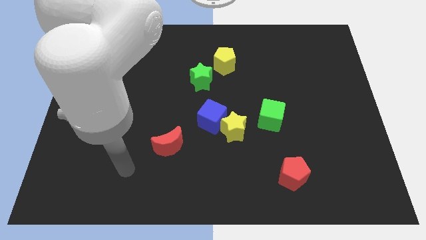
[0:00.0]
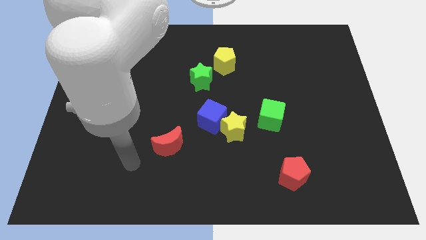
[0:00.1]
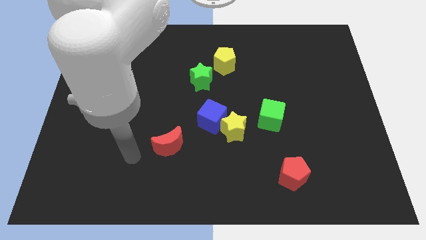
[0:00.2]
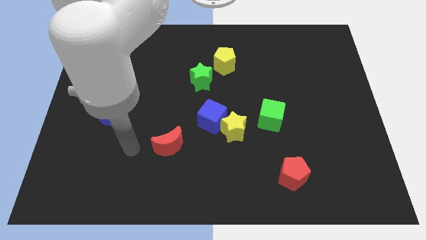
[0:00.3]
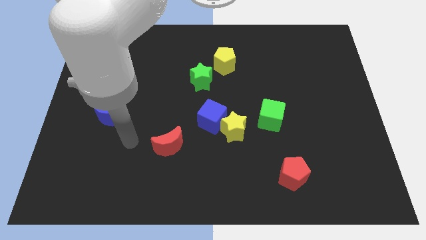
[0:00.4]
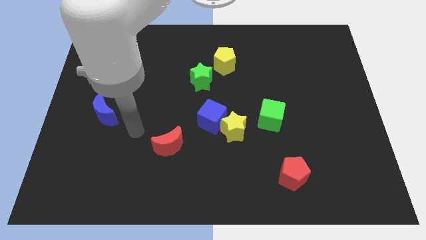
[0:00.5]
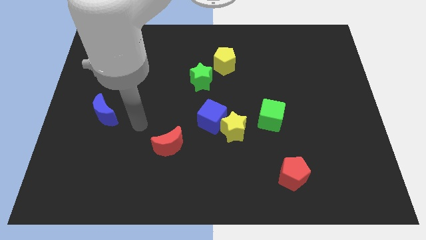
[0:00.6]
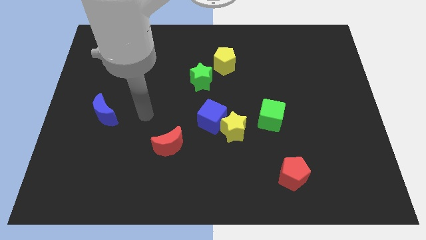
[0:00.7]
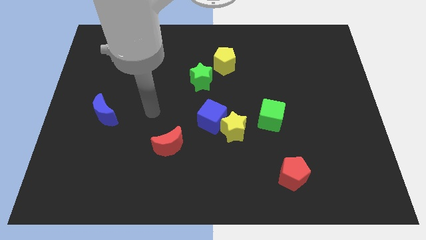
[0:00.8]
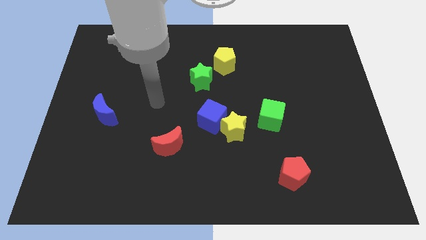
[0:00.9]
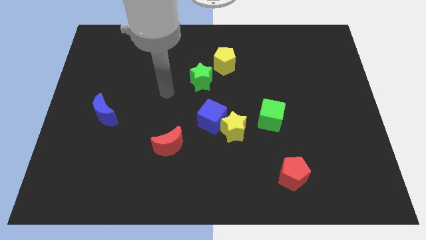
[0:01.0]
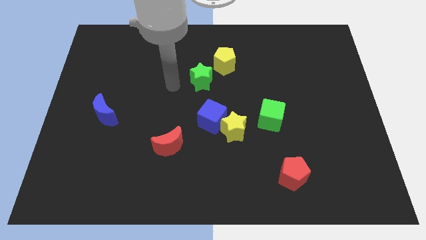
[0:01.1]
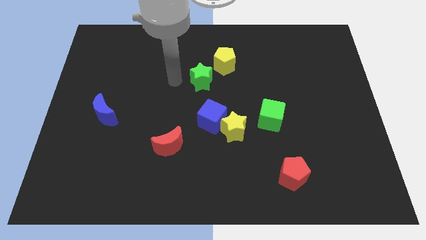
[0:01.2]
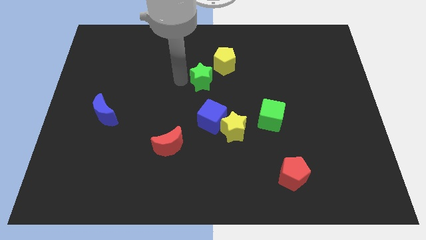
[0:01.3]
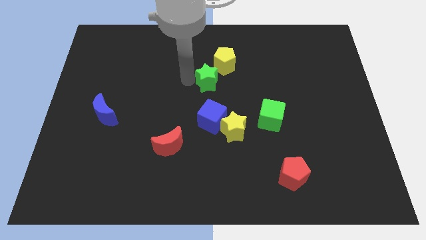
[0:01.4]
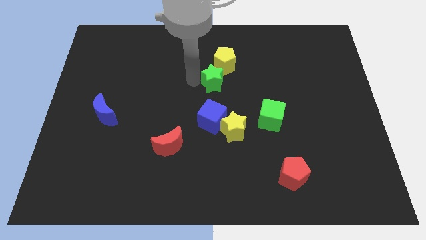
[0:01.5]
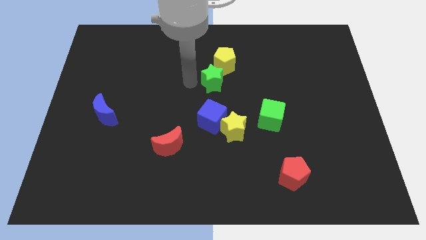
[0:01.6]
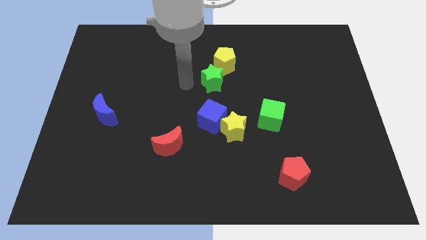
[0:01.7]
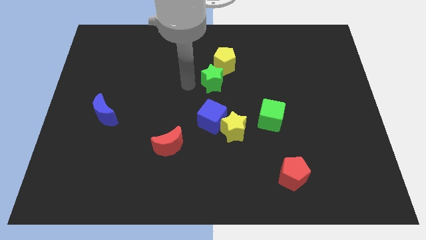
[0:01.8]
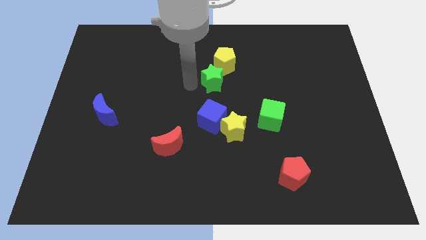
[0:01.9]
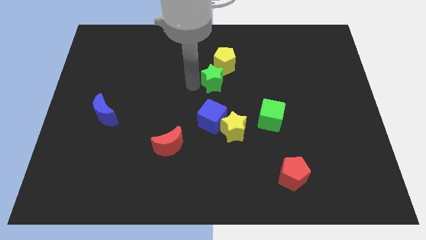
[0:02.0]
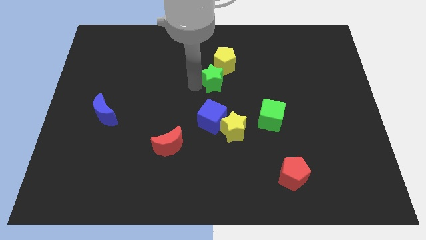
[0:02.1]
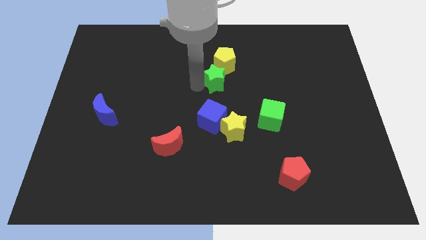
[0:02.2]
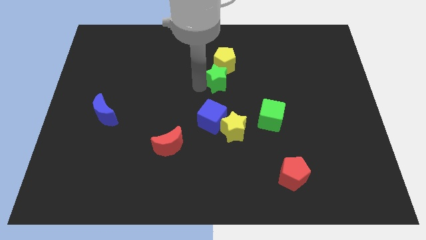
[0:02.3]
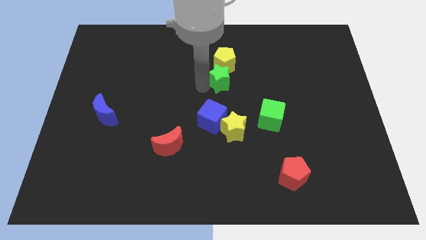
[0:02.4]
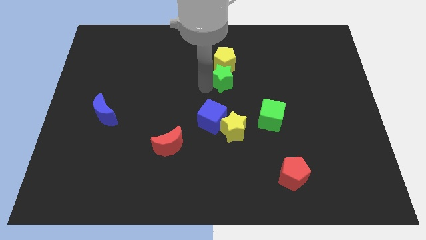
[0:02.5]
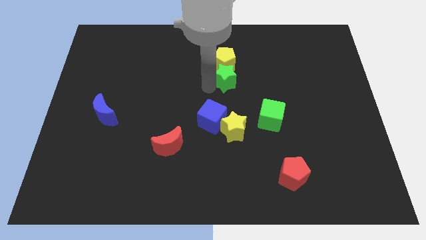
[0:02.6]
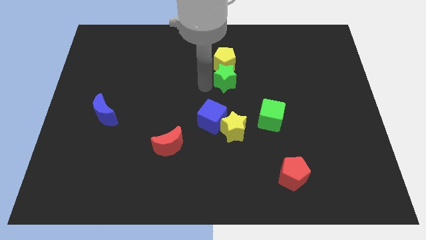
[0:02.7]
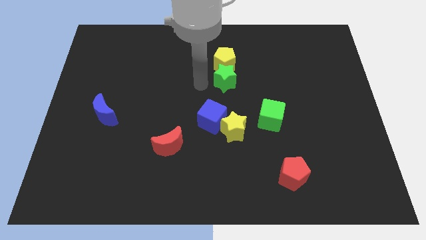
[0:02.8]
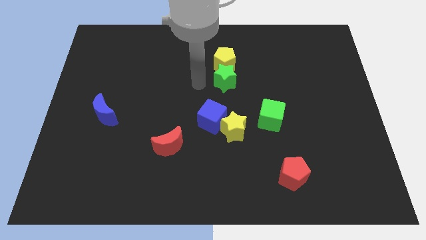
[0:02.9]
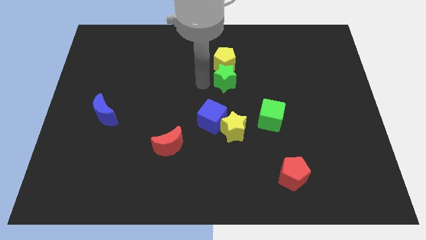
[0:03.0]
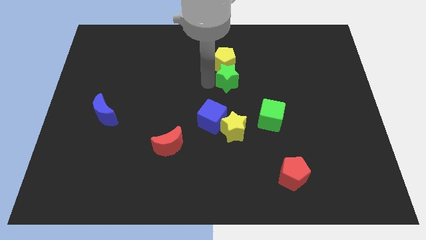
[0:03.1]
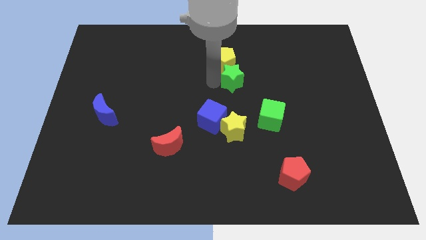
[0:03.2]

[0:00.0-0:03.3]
push the green star a little right

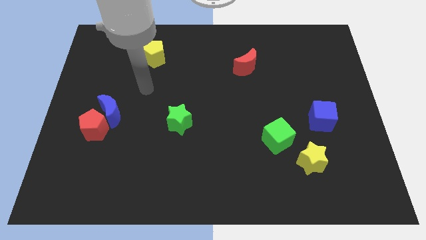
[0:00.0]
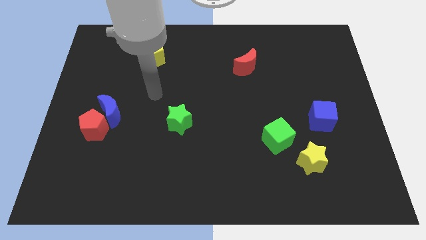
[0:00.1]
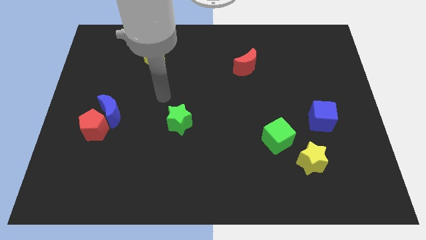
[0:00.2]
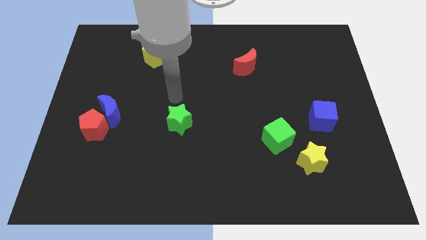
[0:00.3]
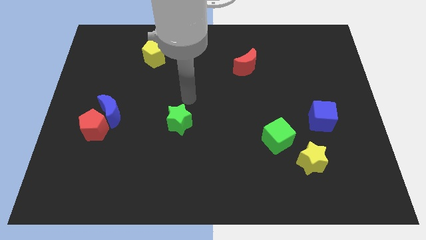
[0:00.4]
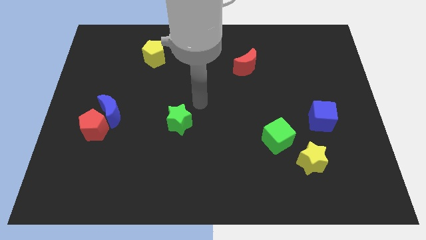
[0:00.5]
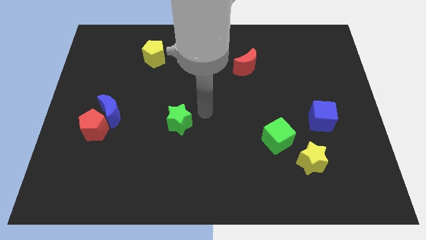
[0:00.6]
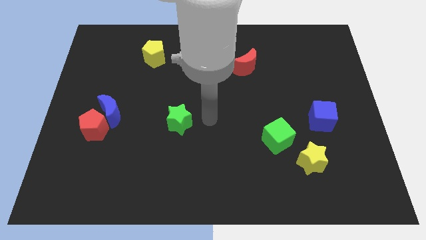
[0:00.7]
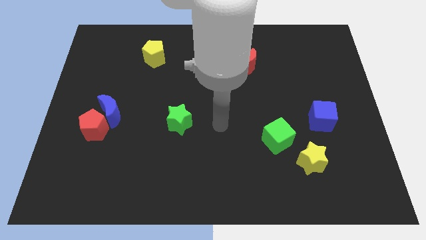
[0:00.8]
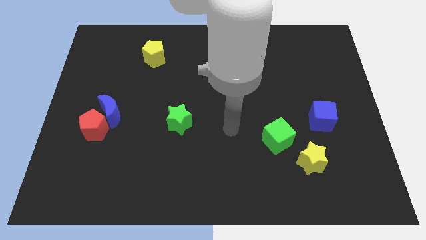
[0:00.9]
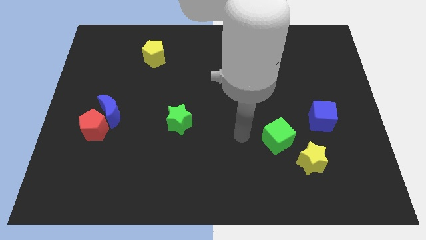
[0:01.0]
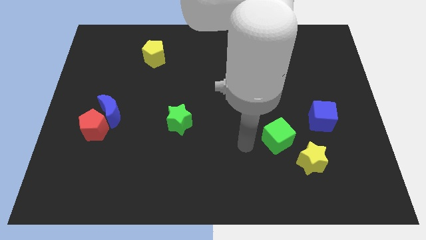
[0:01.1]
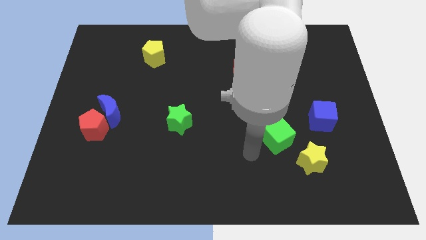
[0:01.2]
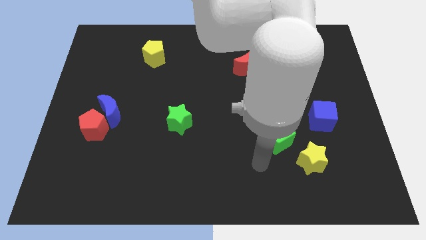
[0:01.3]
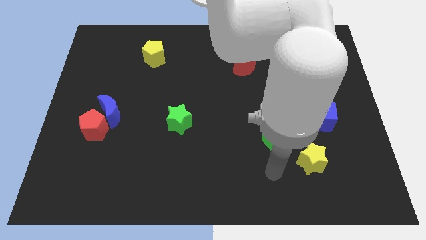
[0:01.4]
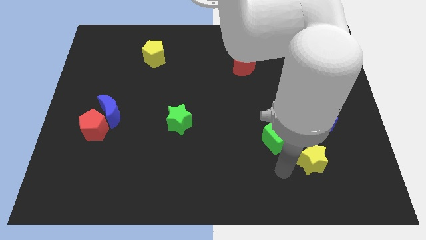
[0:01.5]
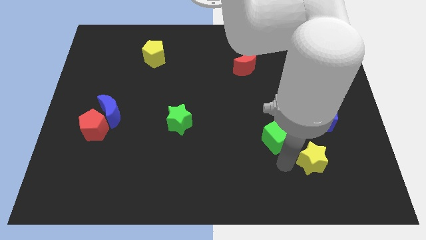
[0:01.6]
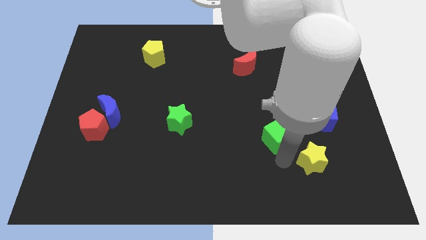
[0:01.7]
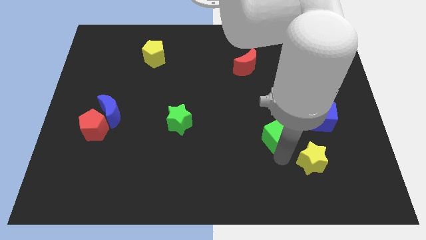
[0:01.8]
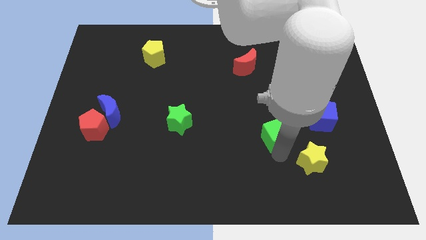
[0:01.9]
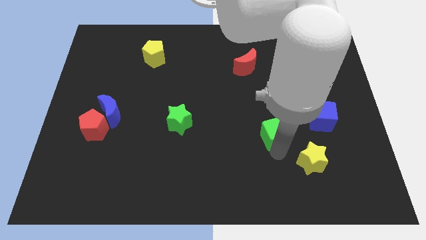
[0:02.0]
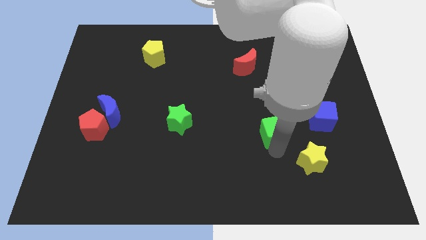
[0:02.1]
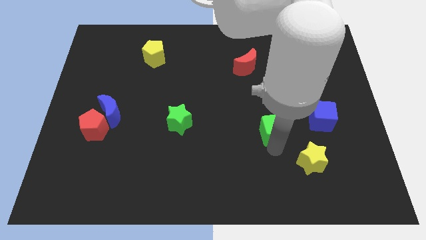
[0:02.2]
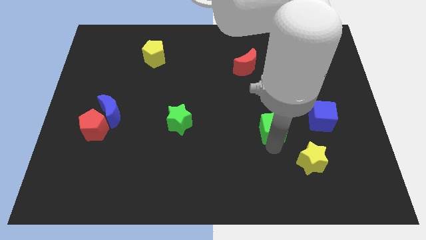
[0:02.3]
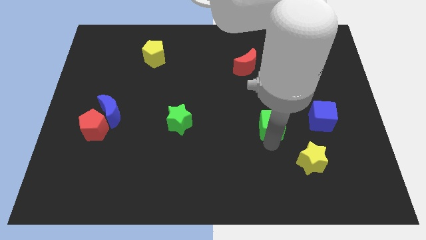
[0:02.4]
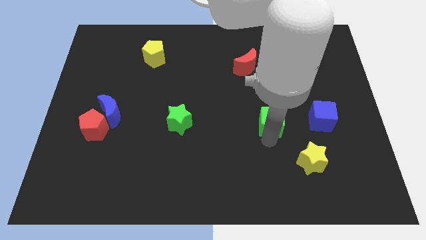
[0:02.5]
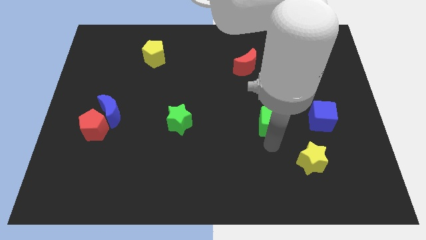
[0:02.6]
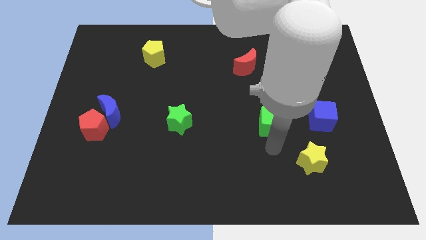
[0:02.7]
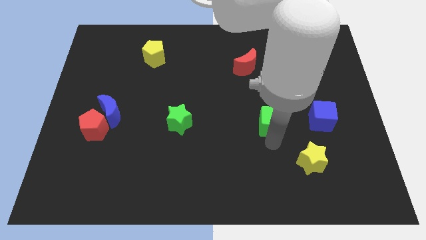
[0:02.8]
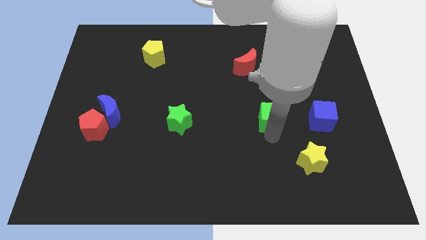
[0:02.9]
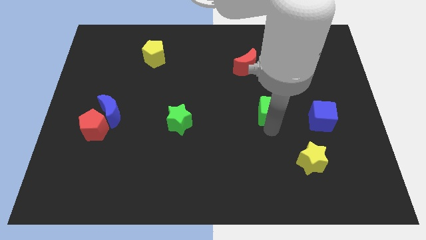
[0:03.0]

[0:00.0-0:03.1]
slightly slide the green cube up

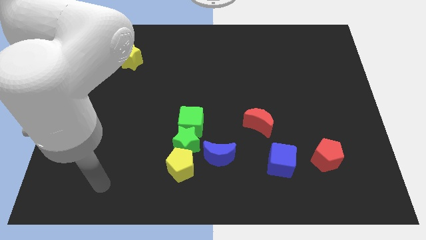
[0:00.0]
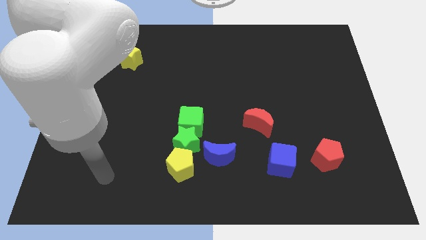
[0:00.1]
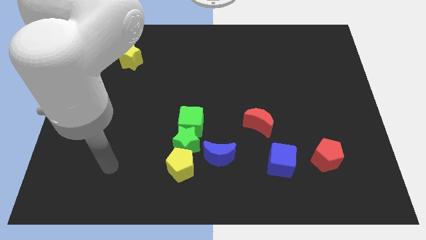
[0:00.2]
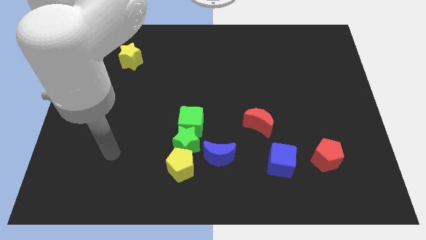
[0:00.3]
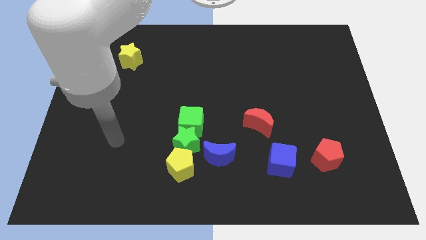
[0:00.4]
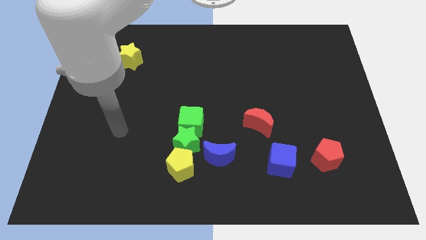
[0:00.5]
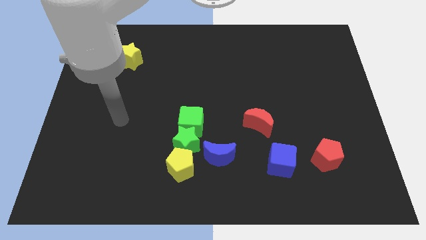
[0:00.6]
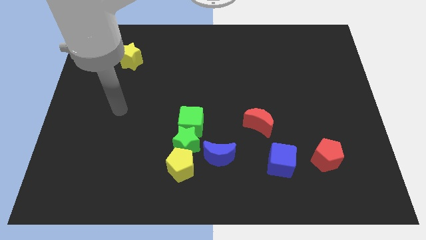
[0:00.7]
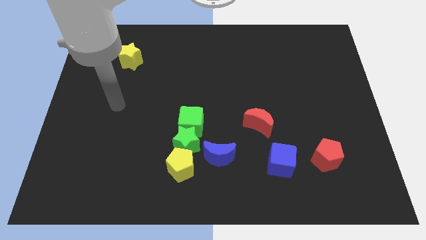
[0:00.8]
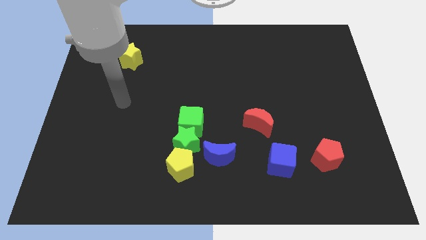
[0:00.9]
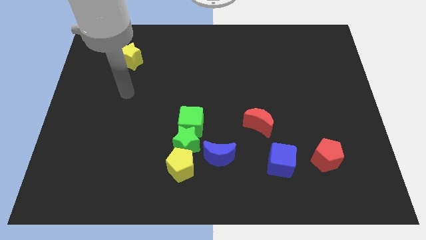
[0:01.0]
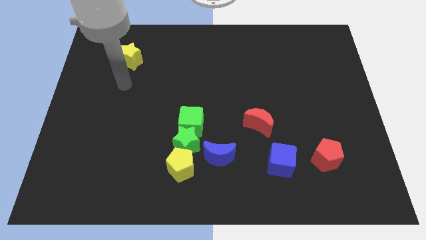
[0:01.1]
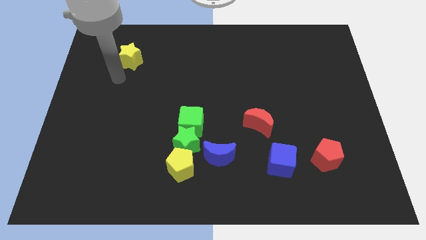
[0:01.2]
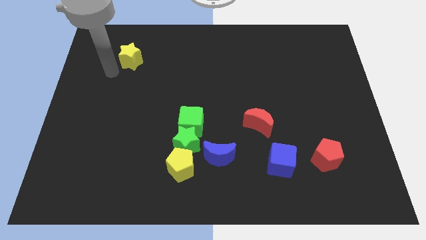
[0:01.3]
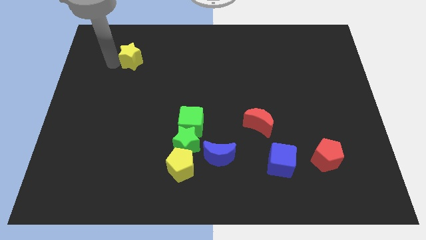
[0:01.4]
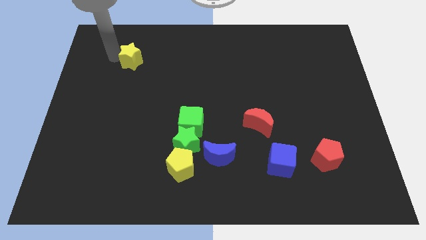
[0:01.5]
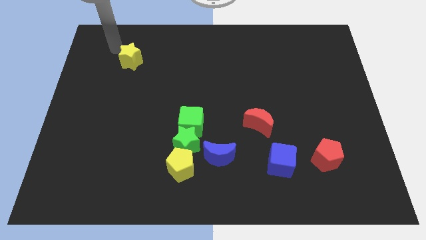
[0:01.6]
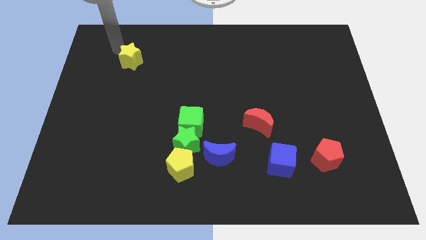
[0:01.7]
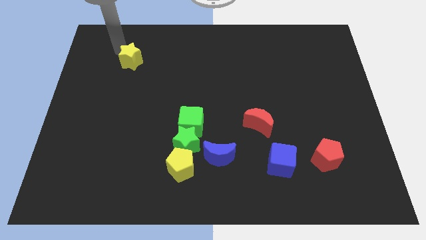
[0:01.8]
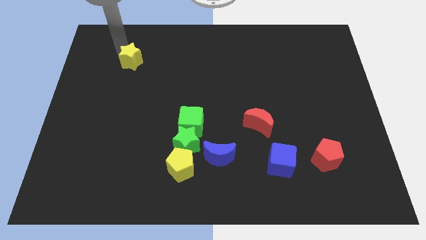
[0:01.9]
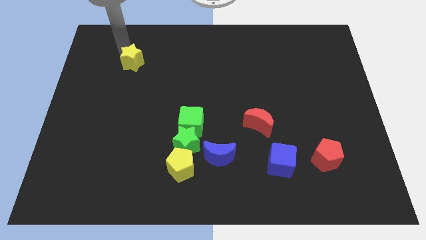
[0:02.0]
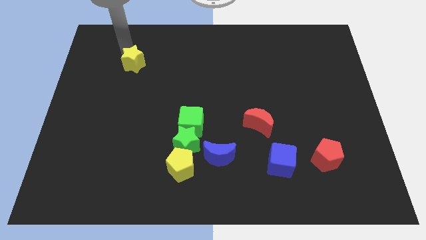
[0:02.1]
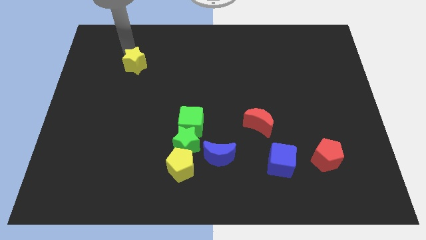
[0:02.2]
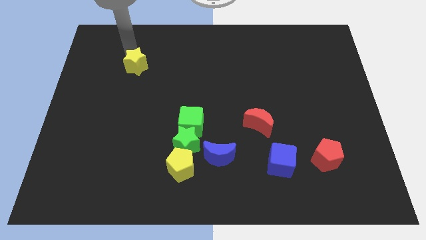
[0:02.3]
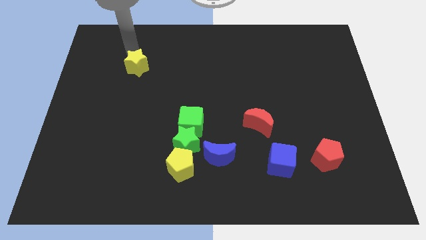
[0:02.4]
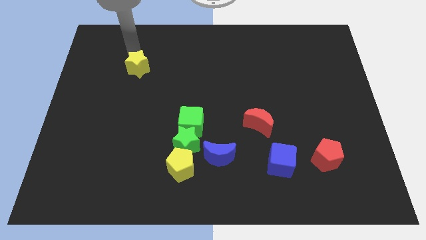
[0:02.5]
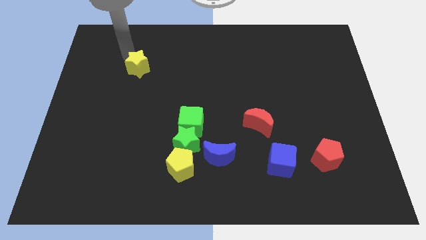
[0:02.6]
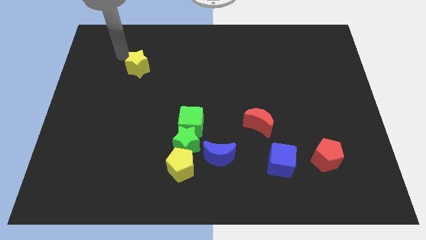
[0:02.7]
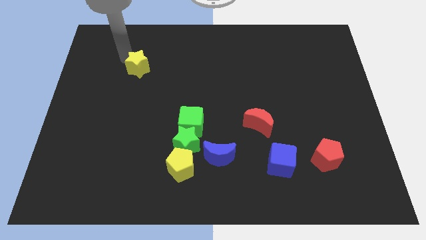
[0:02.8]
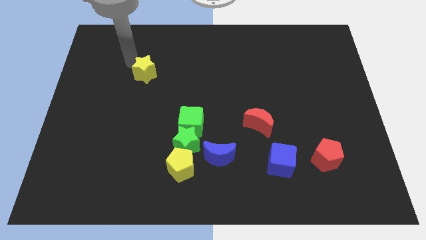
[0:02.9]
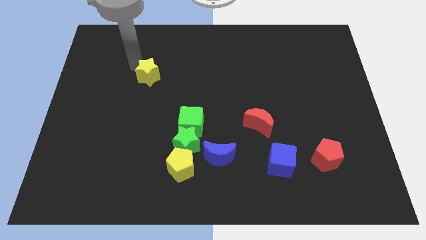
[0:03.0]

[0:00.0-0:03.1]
slightly move the yellow star downwards and right
